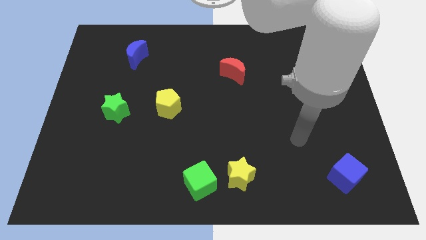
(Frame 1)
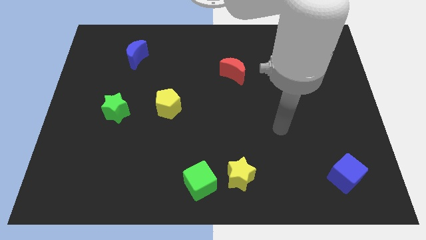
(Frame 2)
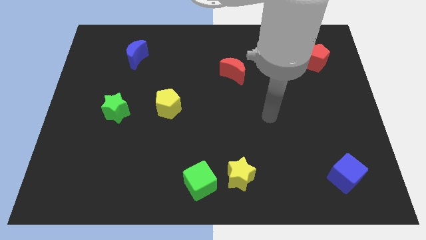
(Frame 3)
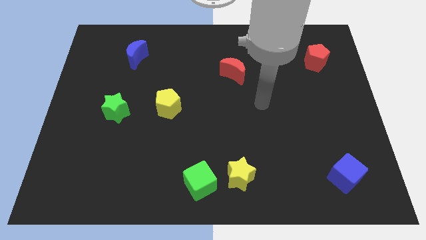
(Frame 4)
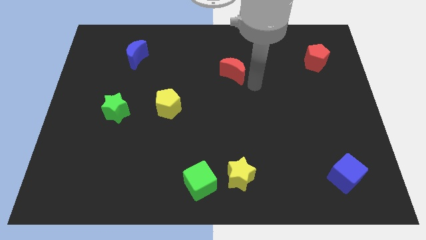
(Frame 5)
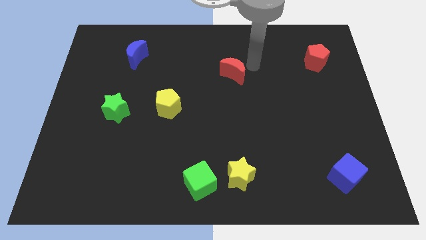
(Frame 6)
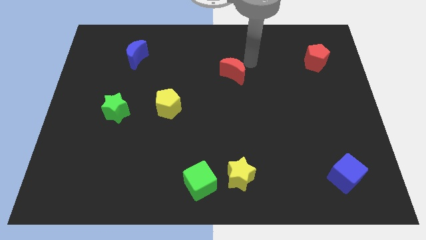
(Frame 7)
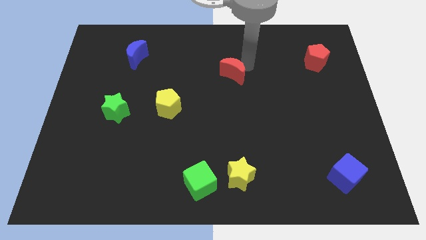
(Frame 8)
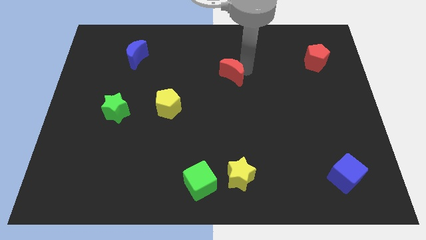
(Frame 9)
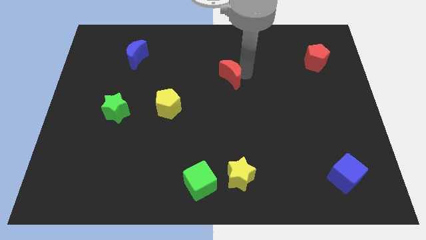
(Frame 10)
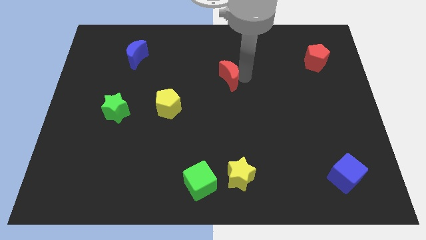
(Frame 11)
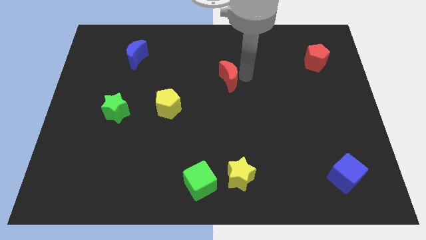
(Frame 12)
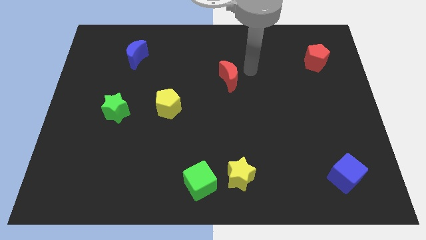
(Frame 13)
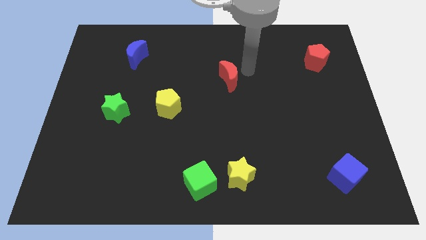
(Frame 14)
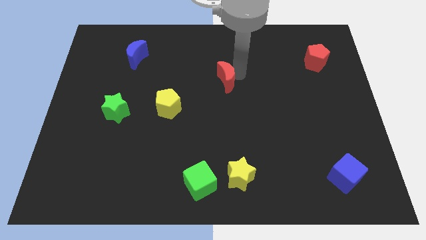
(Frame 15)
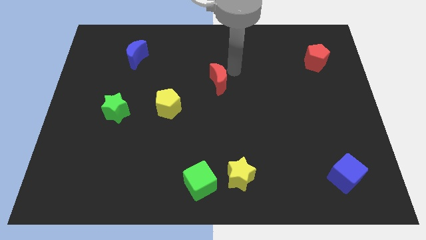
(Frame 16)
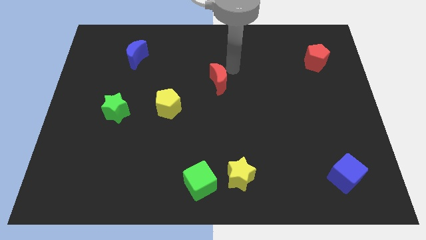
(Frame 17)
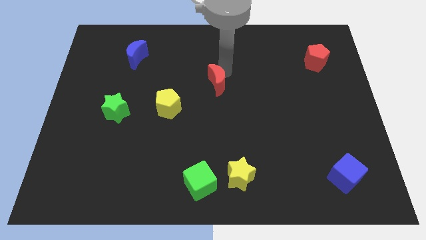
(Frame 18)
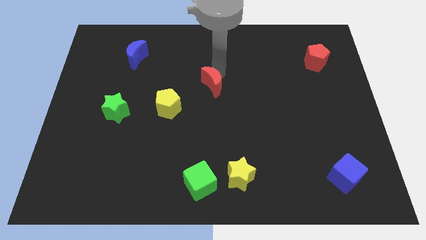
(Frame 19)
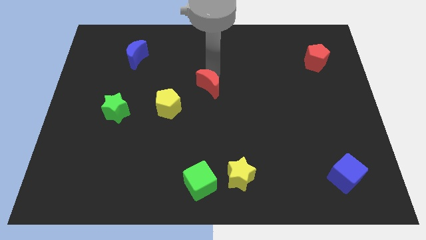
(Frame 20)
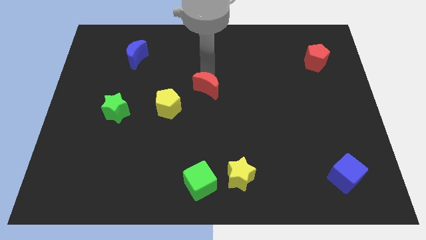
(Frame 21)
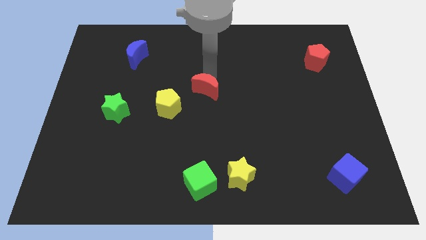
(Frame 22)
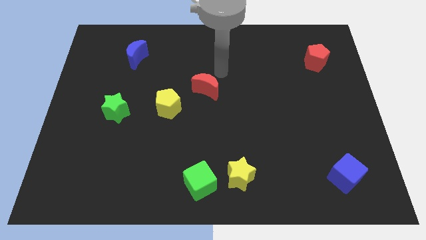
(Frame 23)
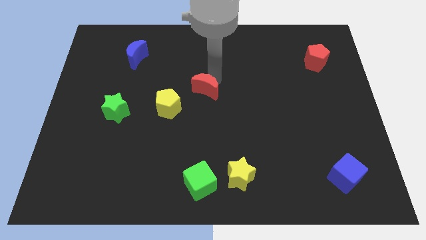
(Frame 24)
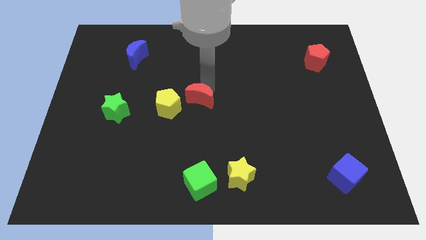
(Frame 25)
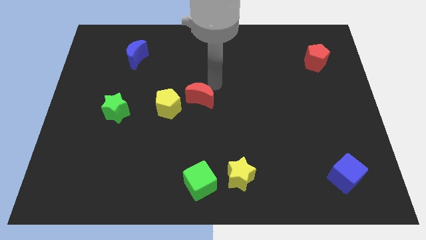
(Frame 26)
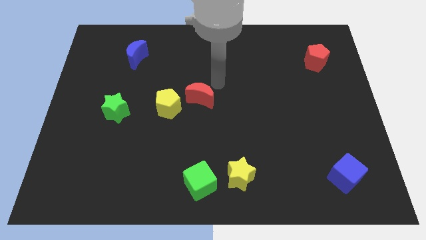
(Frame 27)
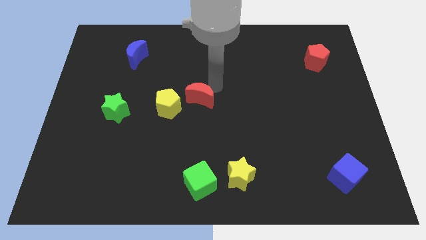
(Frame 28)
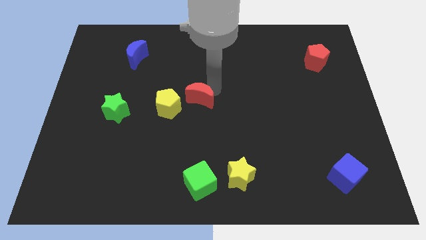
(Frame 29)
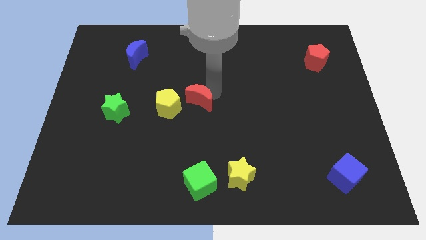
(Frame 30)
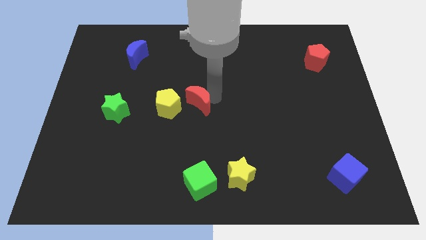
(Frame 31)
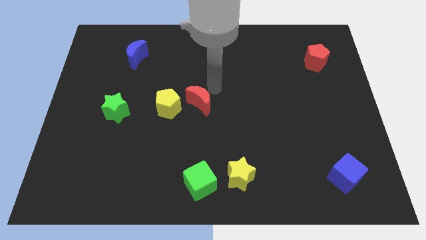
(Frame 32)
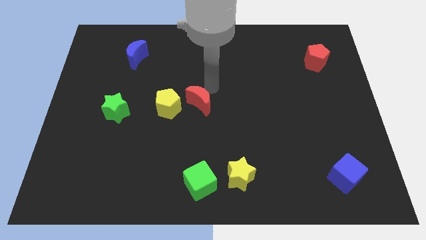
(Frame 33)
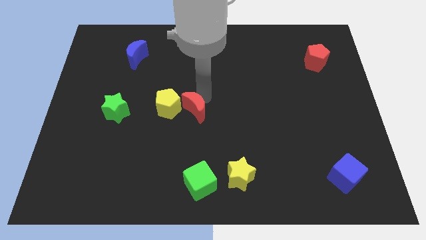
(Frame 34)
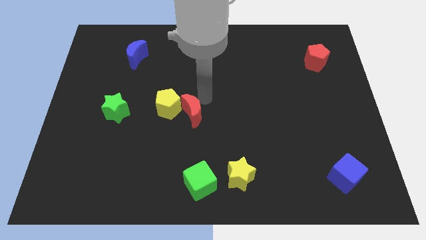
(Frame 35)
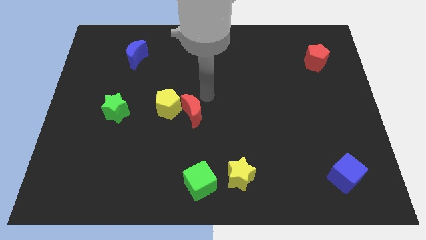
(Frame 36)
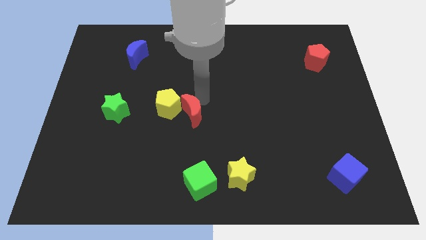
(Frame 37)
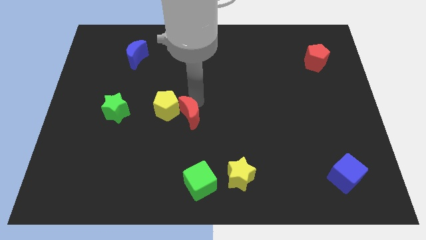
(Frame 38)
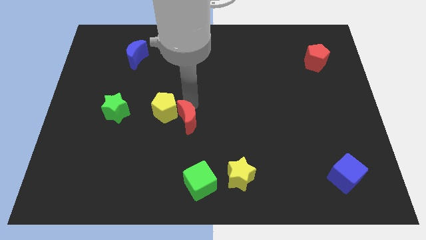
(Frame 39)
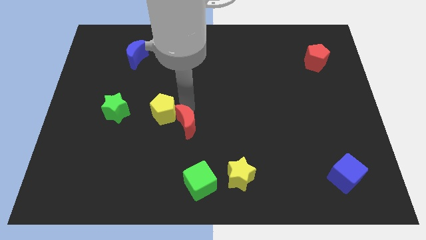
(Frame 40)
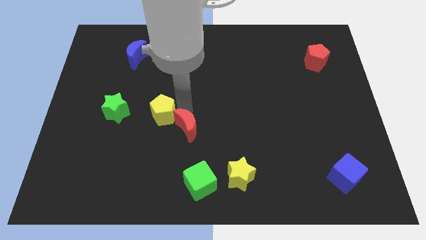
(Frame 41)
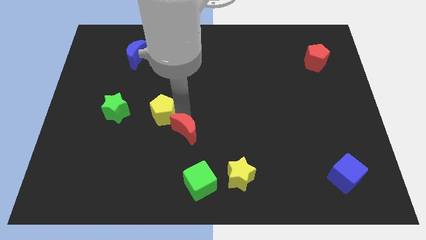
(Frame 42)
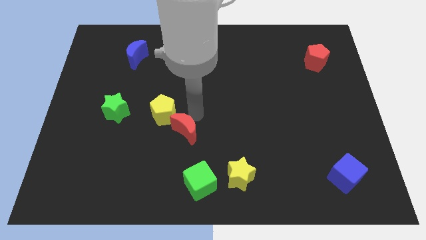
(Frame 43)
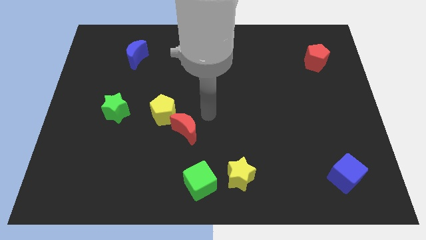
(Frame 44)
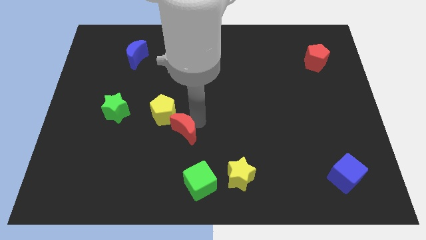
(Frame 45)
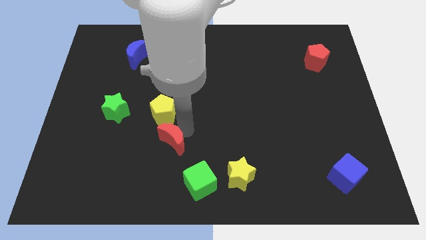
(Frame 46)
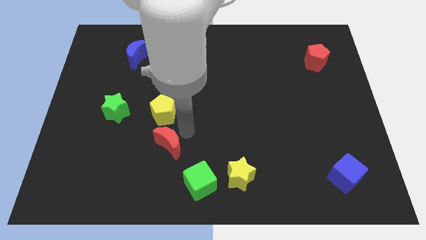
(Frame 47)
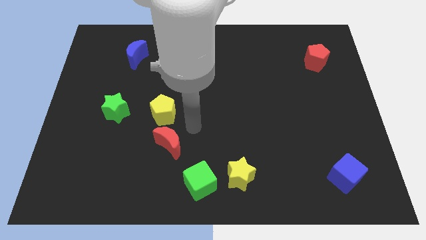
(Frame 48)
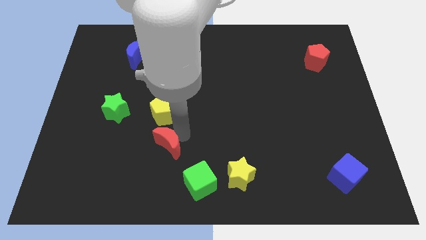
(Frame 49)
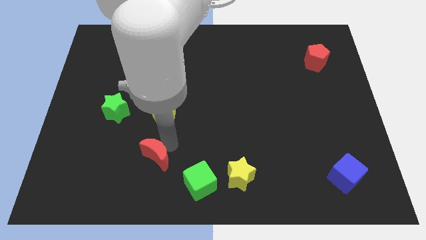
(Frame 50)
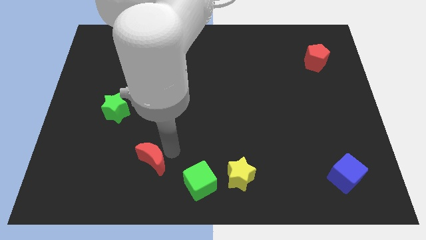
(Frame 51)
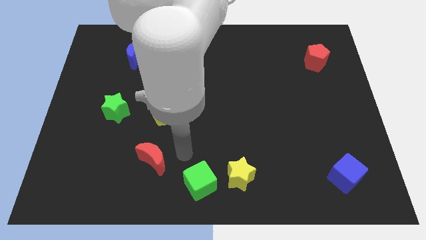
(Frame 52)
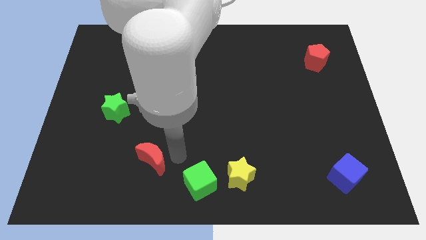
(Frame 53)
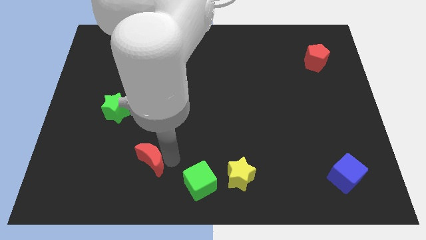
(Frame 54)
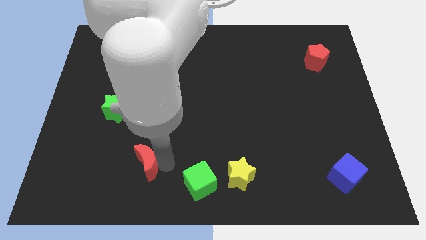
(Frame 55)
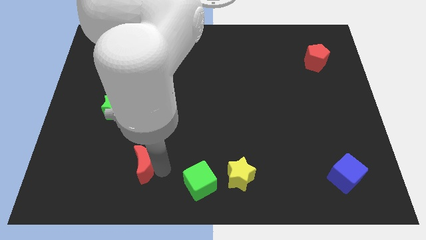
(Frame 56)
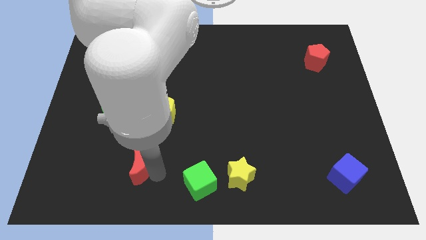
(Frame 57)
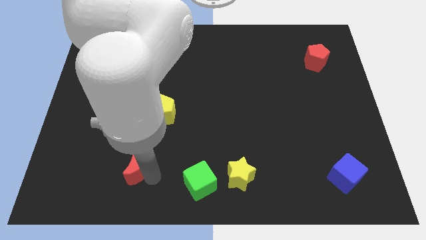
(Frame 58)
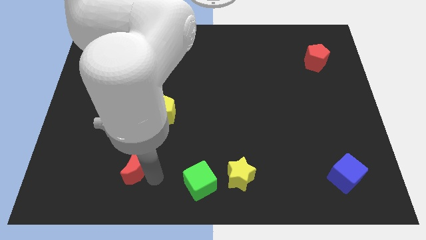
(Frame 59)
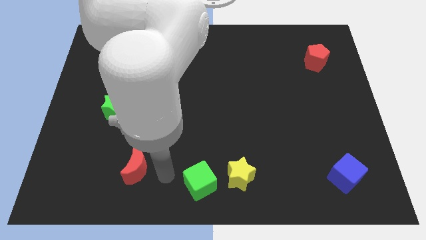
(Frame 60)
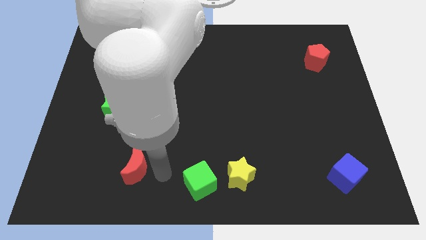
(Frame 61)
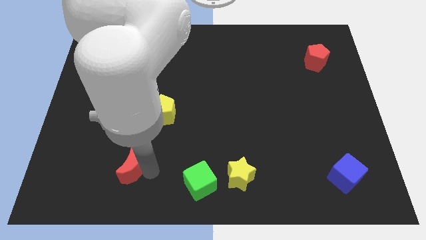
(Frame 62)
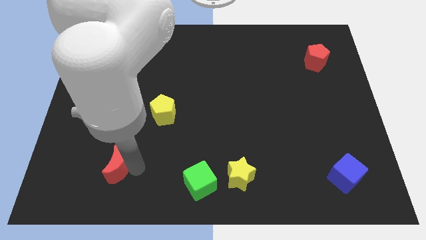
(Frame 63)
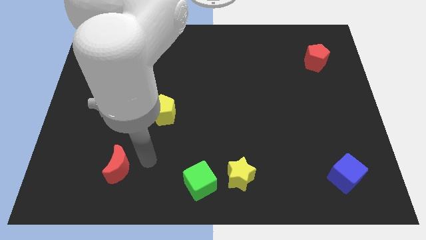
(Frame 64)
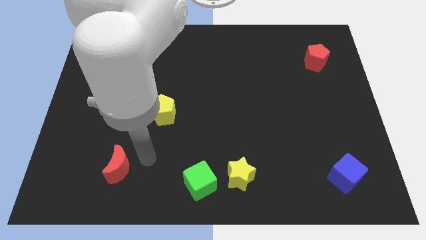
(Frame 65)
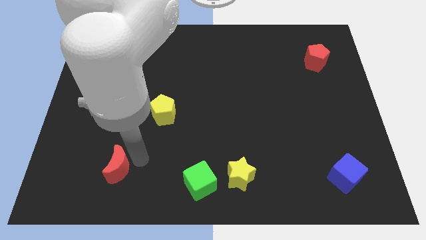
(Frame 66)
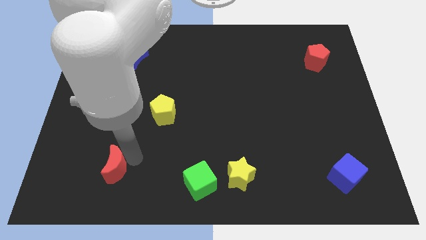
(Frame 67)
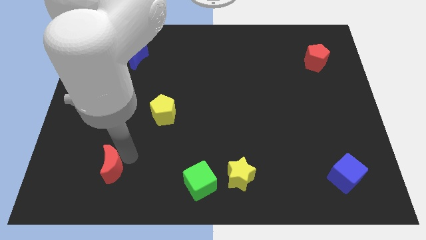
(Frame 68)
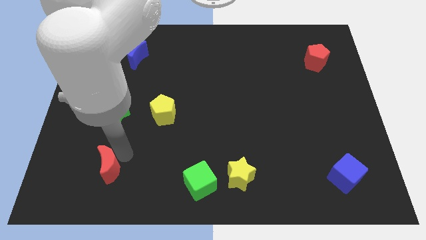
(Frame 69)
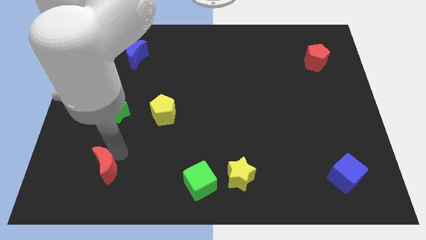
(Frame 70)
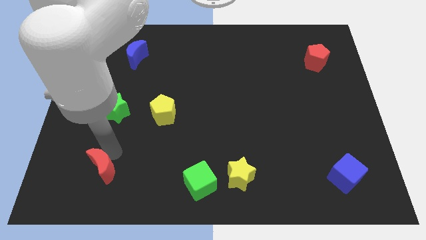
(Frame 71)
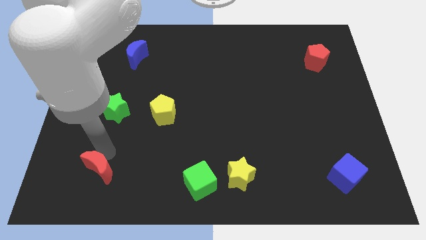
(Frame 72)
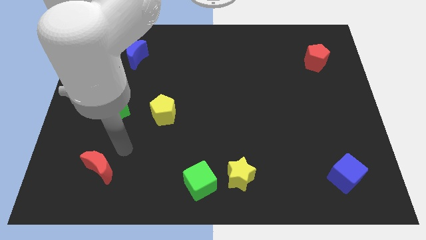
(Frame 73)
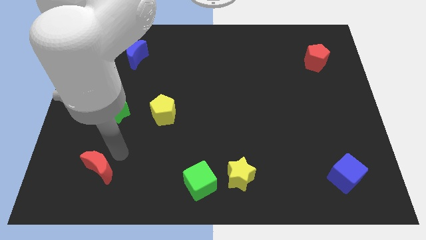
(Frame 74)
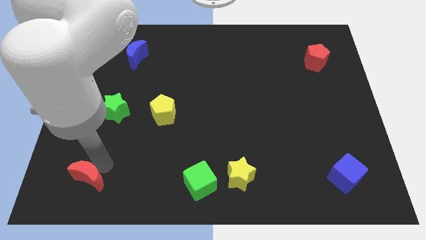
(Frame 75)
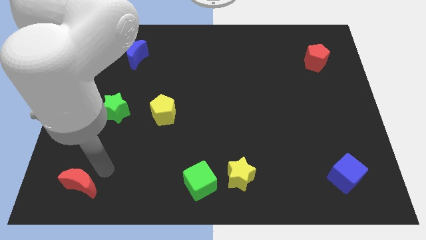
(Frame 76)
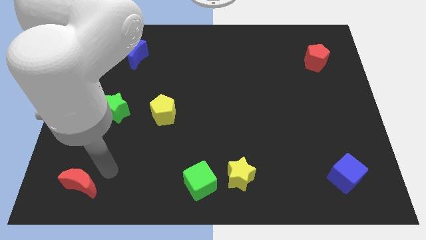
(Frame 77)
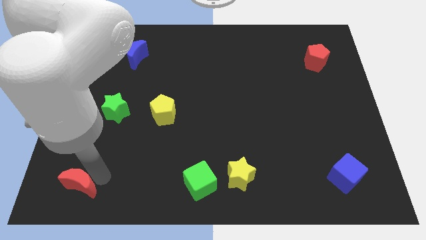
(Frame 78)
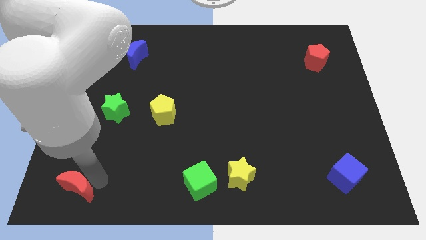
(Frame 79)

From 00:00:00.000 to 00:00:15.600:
push the red moon to the lower left corner

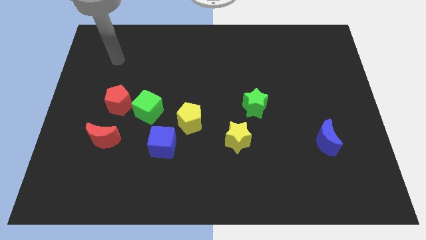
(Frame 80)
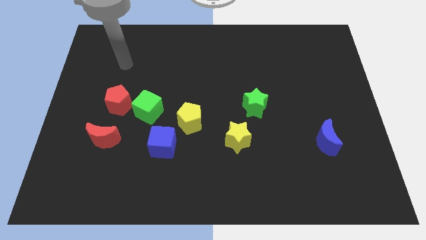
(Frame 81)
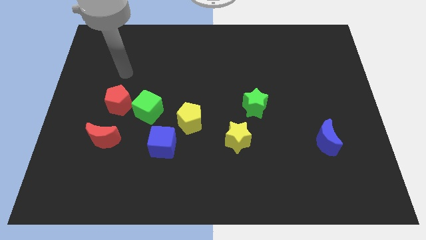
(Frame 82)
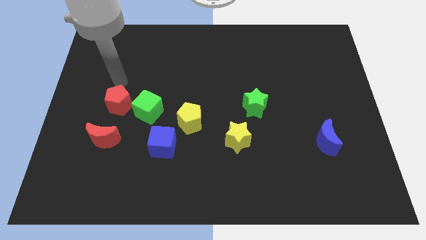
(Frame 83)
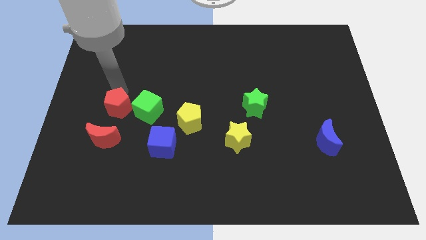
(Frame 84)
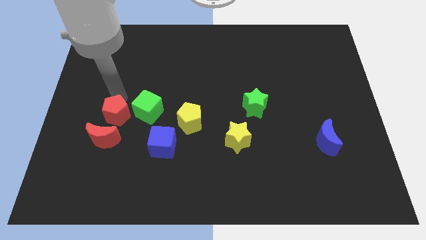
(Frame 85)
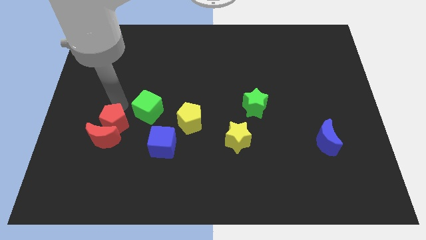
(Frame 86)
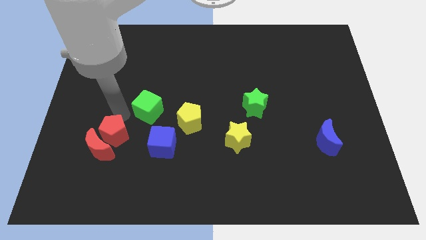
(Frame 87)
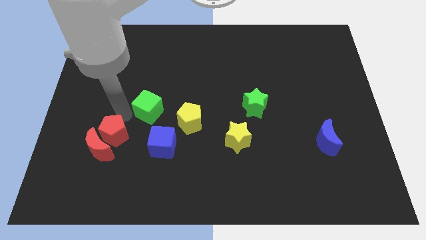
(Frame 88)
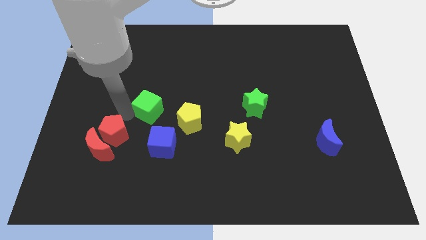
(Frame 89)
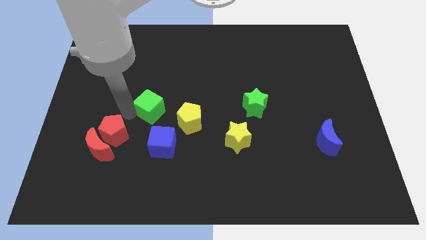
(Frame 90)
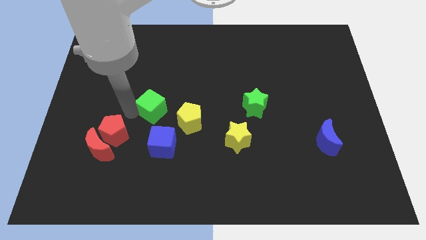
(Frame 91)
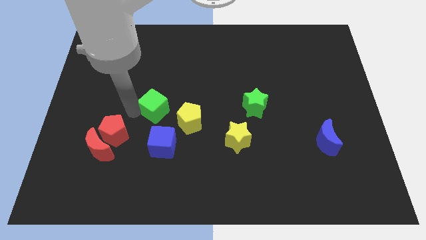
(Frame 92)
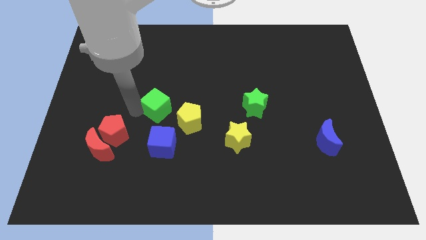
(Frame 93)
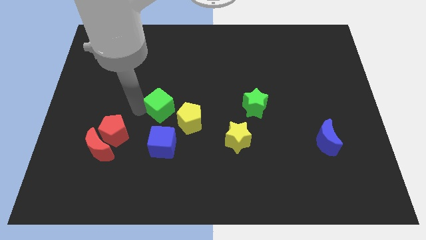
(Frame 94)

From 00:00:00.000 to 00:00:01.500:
put the green cube to the center
